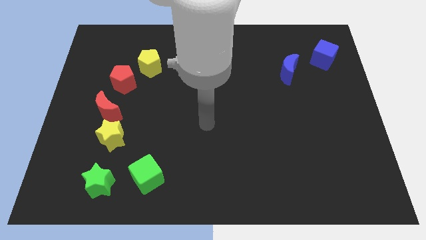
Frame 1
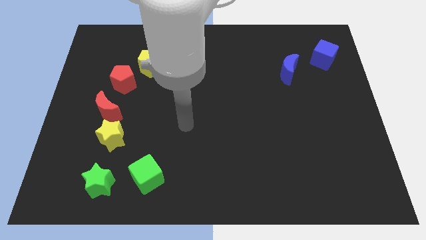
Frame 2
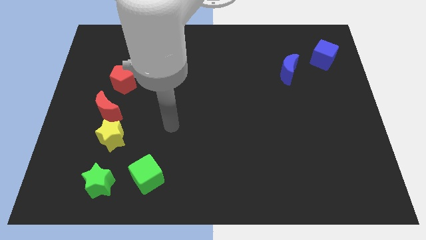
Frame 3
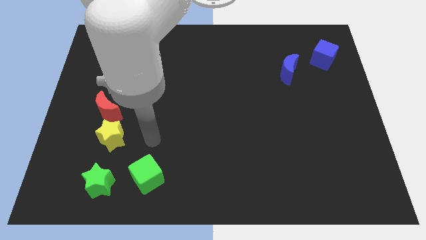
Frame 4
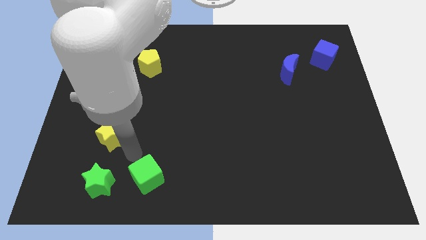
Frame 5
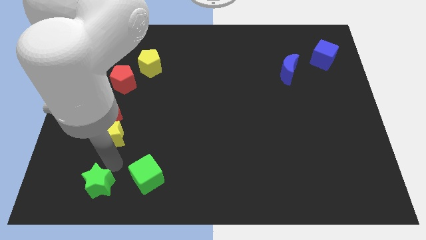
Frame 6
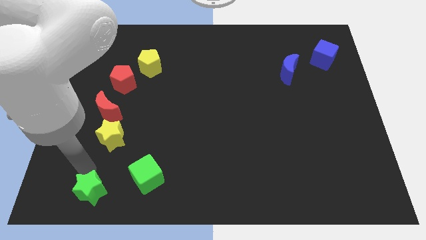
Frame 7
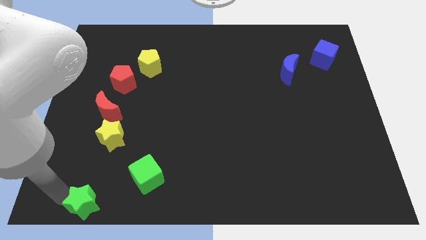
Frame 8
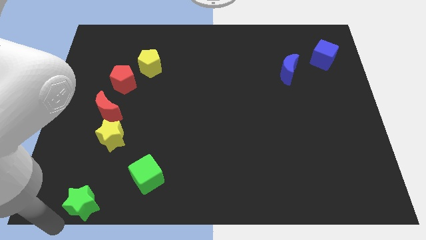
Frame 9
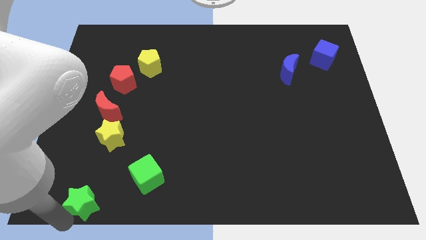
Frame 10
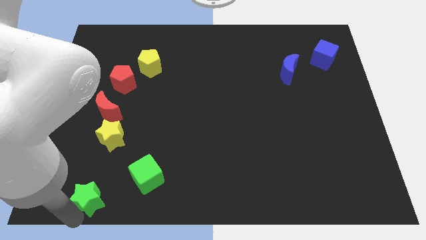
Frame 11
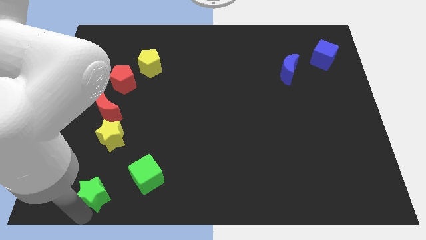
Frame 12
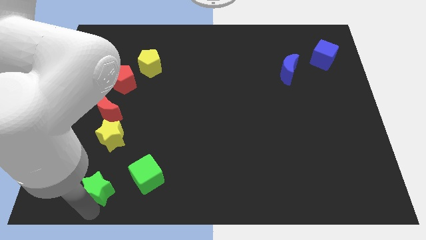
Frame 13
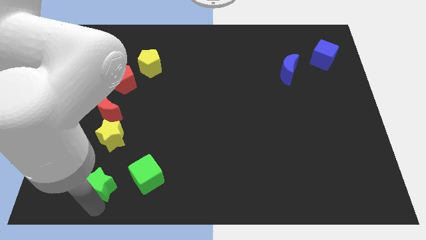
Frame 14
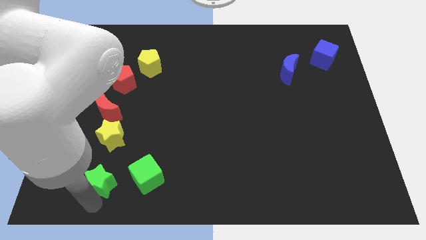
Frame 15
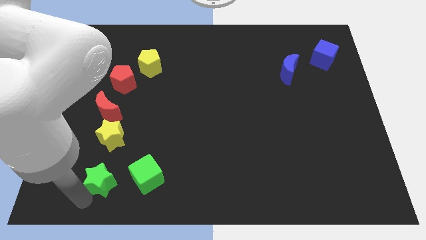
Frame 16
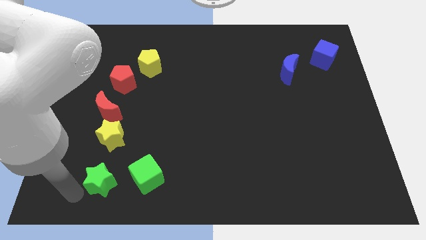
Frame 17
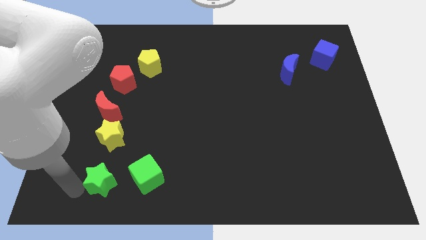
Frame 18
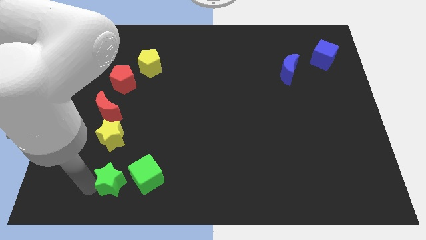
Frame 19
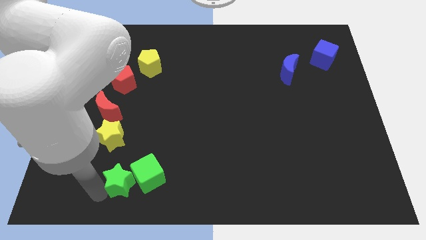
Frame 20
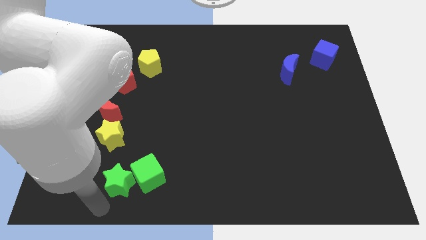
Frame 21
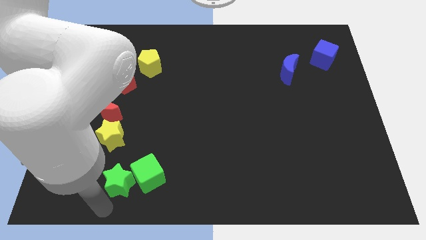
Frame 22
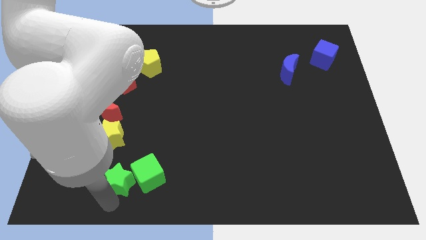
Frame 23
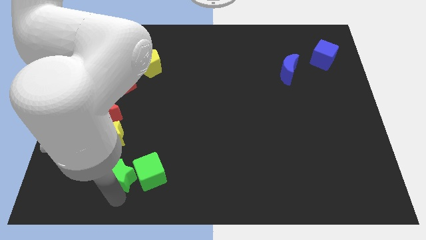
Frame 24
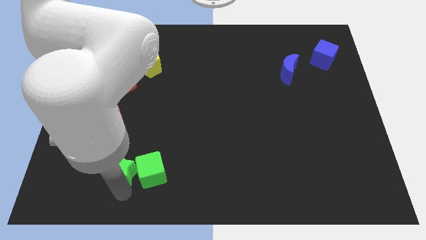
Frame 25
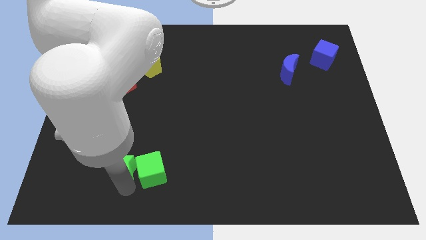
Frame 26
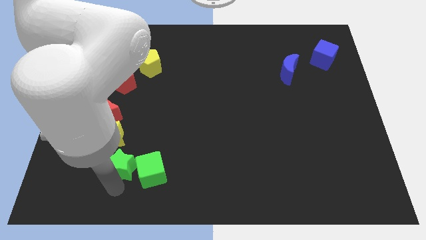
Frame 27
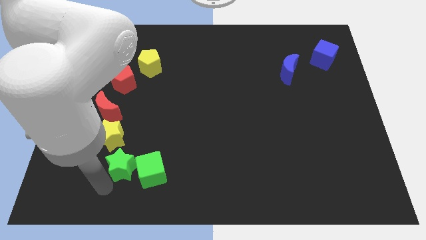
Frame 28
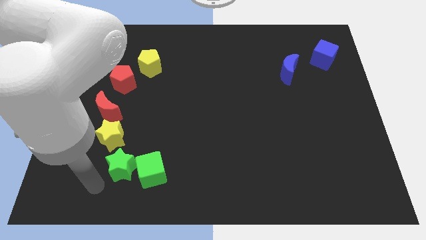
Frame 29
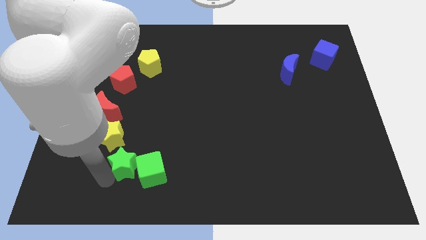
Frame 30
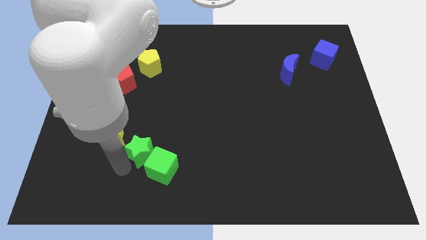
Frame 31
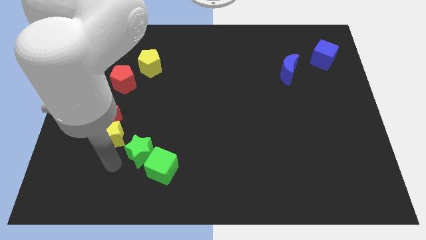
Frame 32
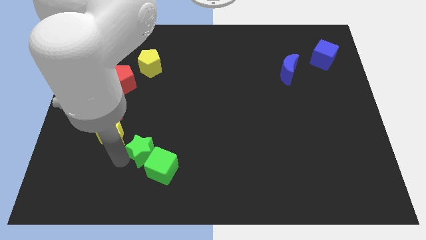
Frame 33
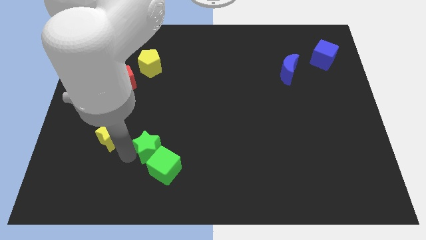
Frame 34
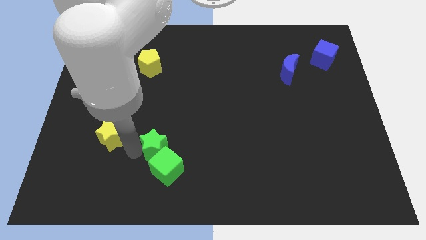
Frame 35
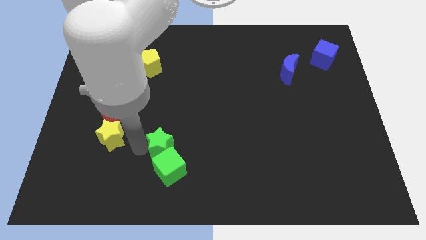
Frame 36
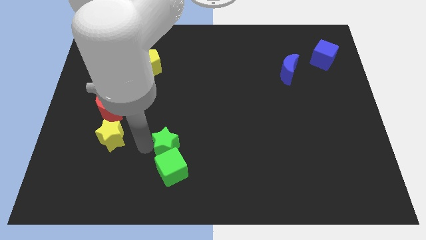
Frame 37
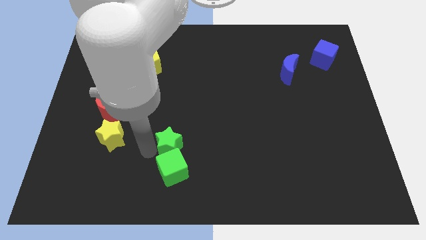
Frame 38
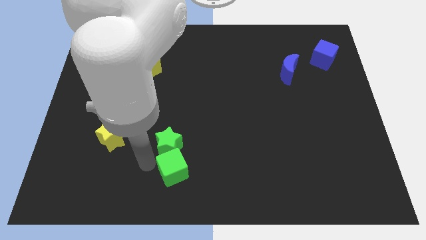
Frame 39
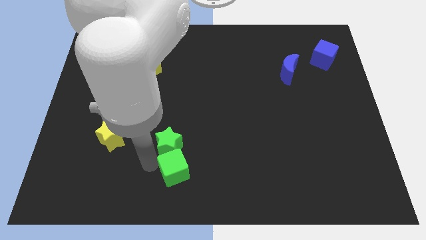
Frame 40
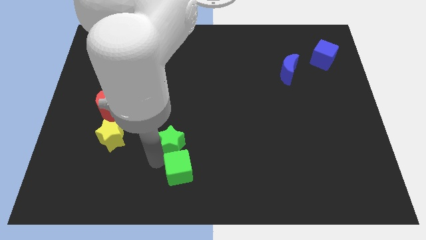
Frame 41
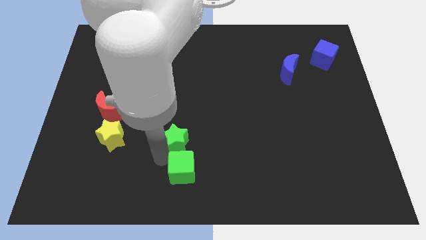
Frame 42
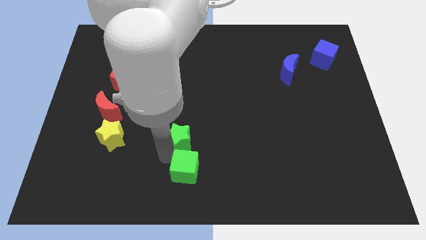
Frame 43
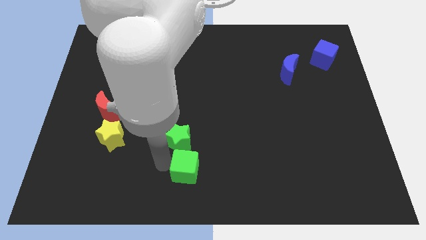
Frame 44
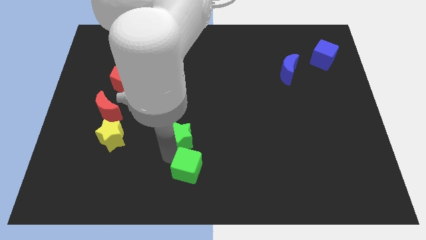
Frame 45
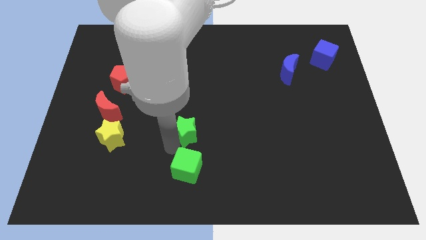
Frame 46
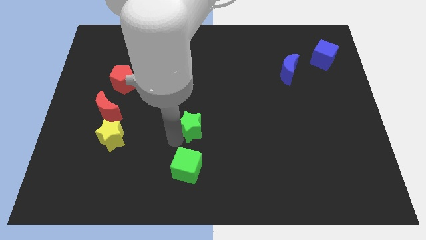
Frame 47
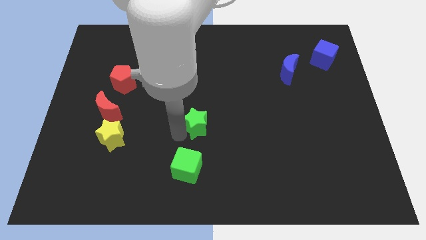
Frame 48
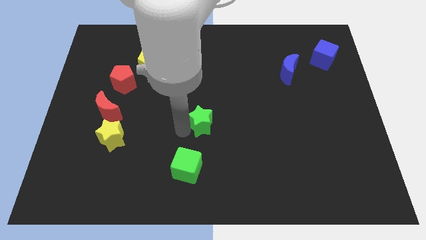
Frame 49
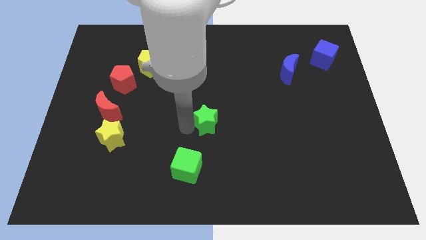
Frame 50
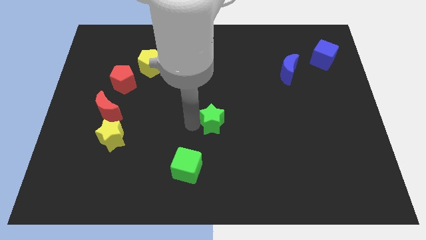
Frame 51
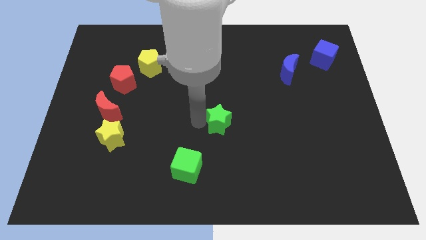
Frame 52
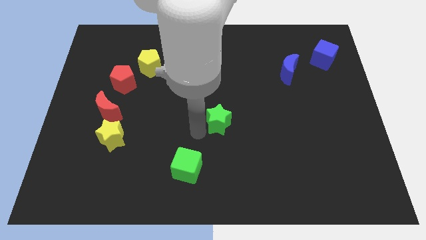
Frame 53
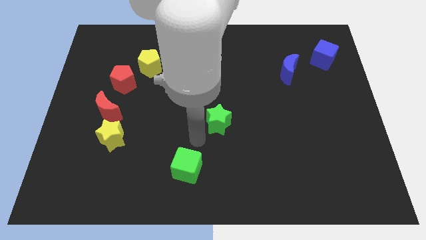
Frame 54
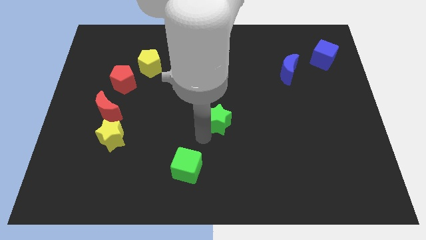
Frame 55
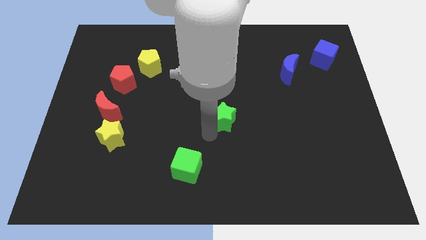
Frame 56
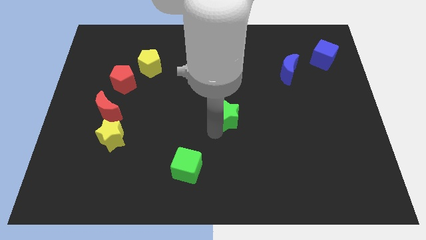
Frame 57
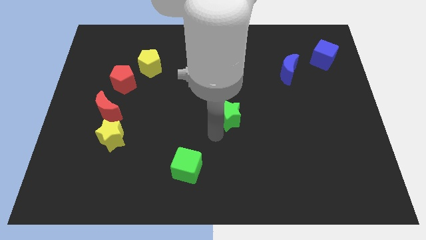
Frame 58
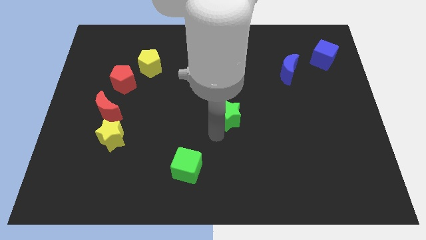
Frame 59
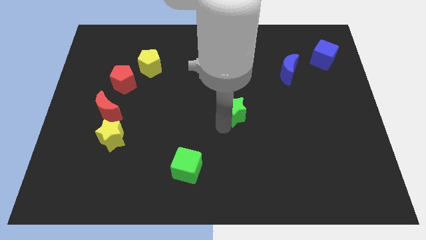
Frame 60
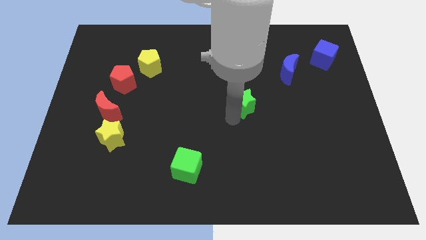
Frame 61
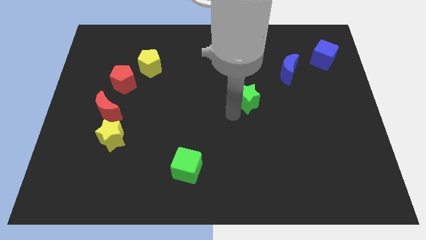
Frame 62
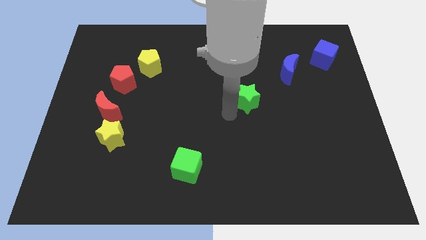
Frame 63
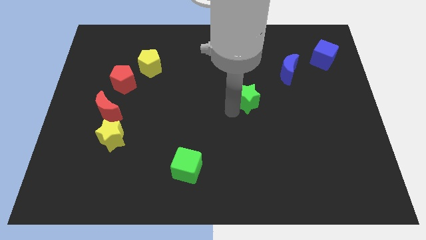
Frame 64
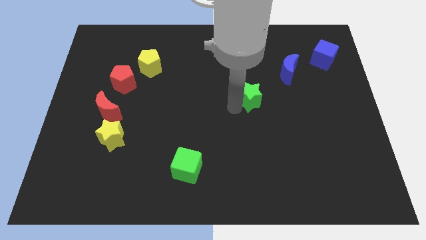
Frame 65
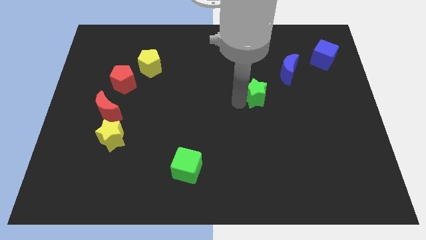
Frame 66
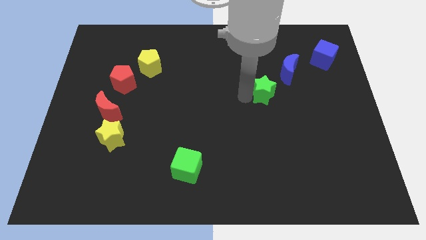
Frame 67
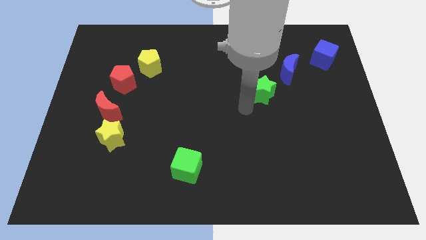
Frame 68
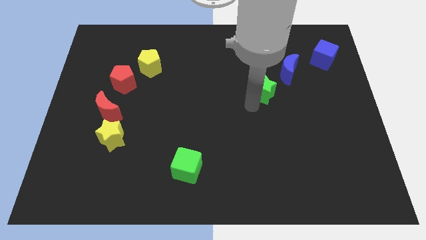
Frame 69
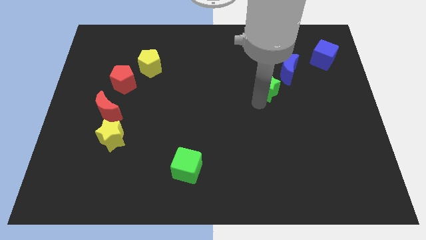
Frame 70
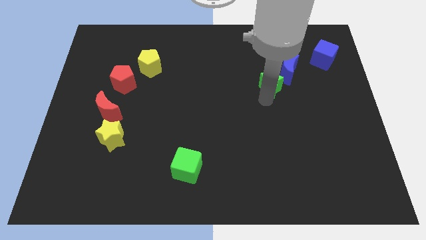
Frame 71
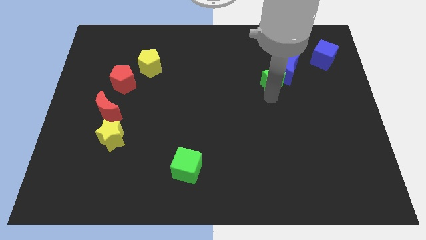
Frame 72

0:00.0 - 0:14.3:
move the green star to the blue moon

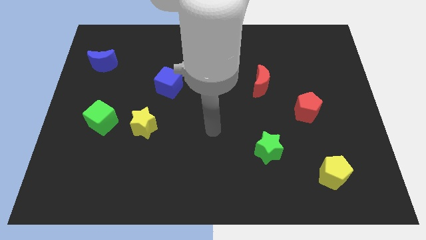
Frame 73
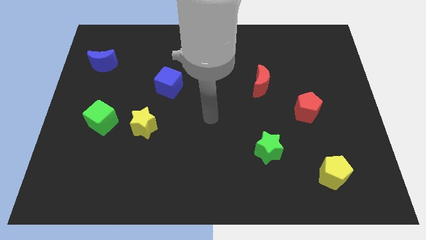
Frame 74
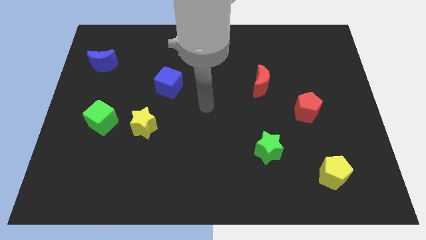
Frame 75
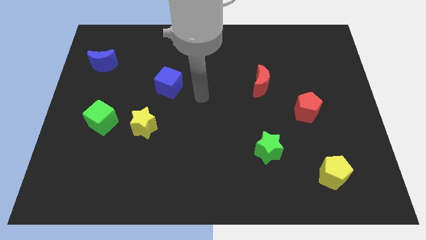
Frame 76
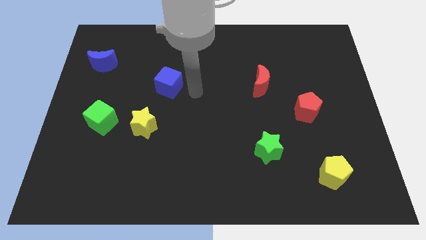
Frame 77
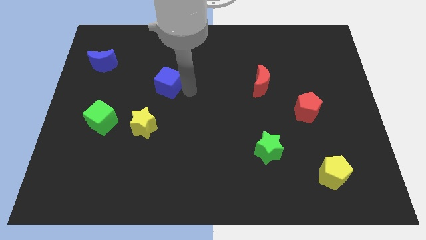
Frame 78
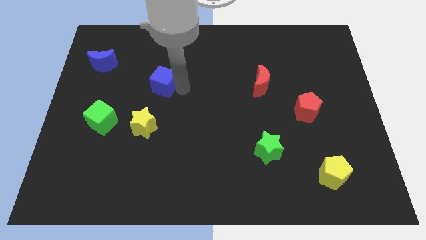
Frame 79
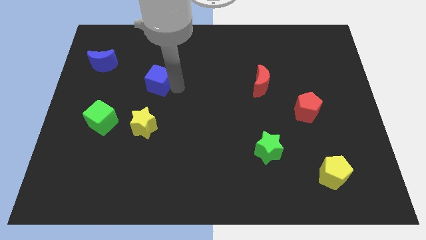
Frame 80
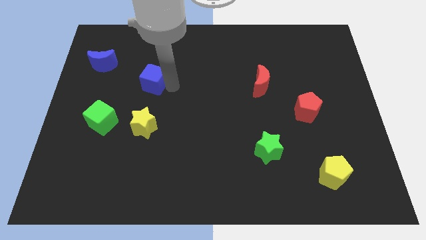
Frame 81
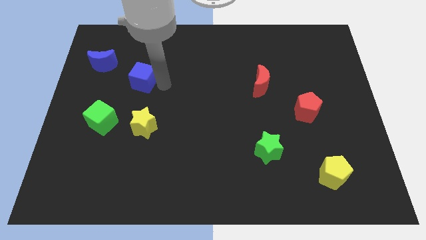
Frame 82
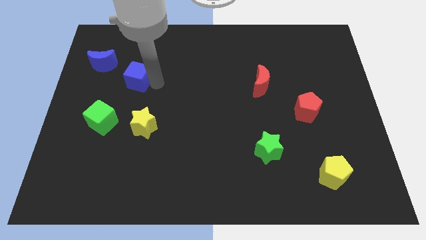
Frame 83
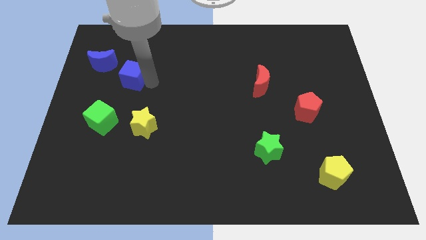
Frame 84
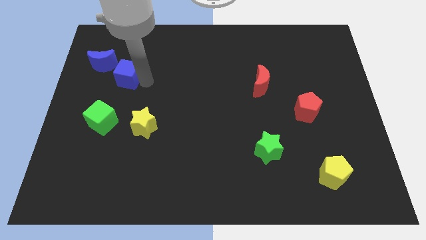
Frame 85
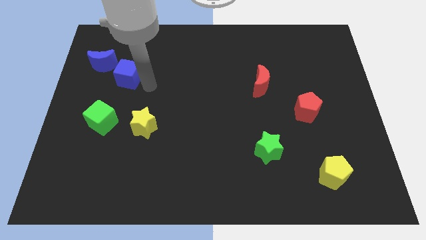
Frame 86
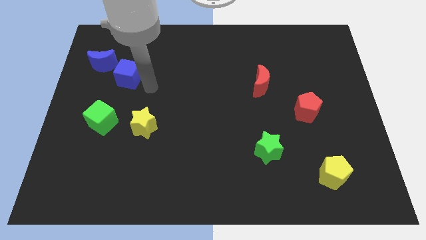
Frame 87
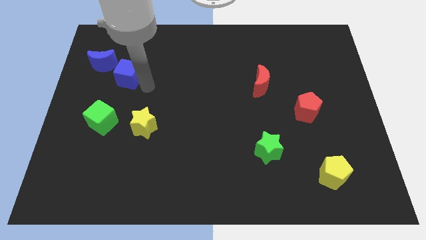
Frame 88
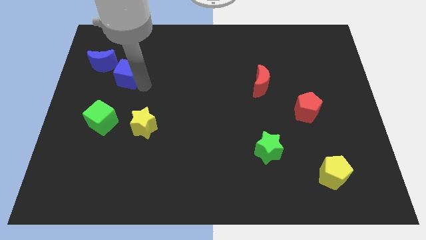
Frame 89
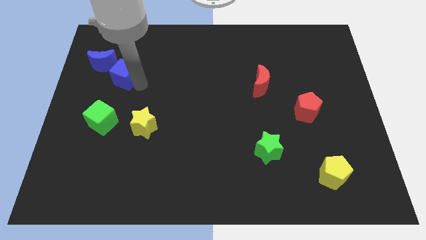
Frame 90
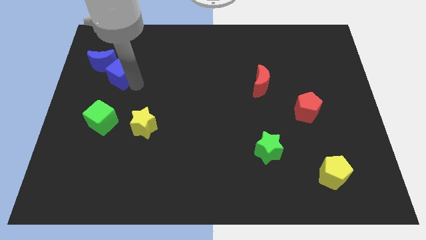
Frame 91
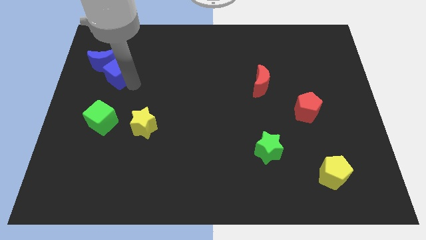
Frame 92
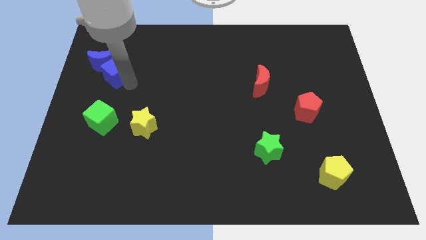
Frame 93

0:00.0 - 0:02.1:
slide the blue cube close to the blue moon
